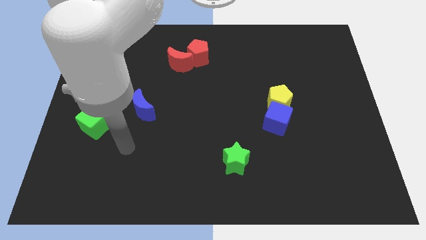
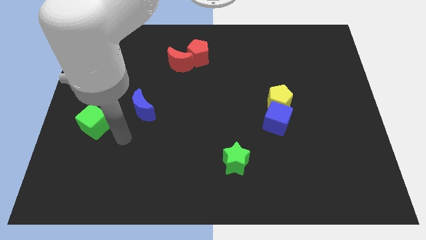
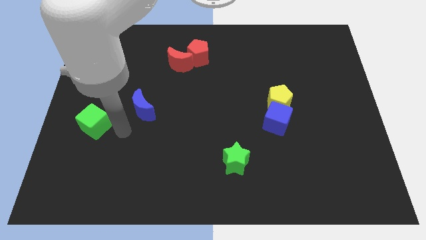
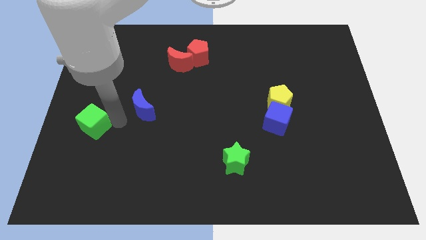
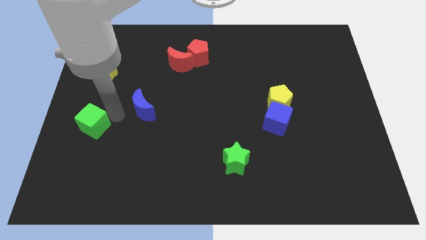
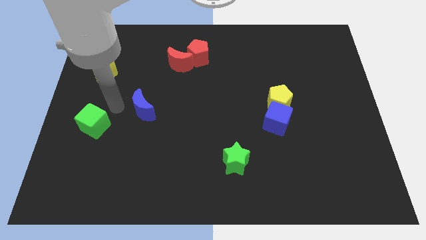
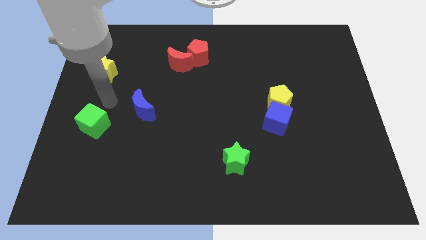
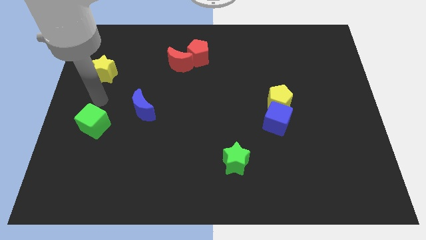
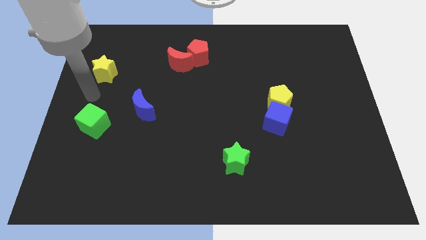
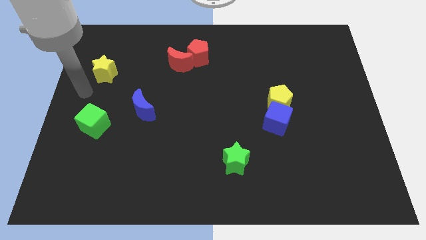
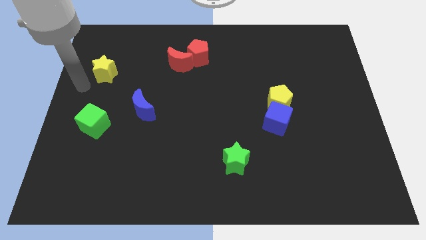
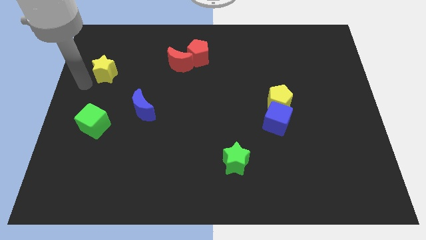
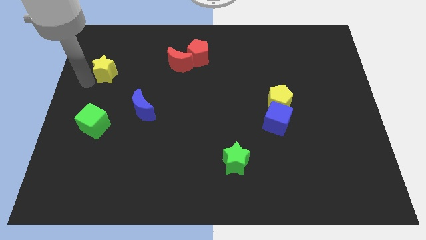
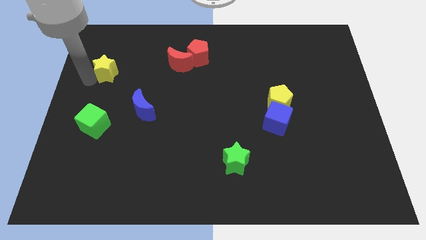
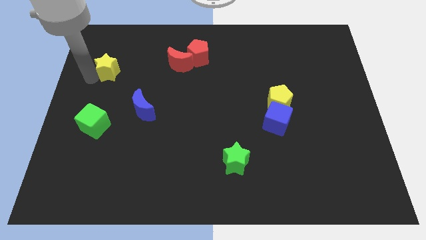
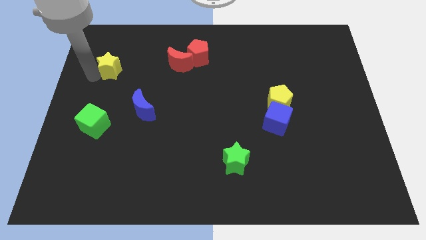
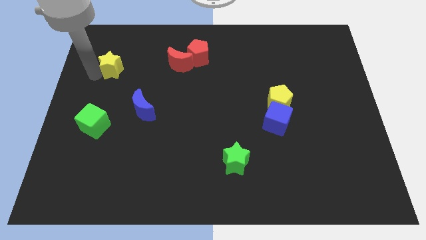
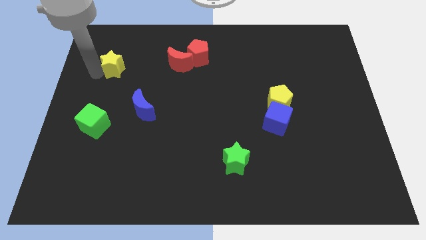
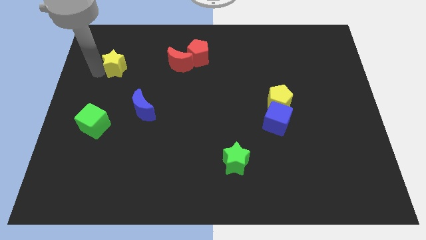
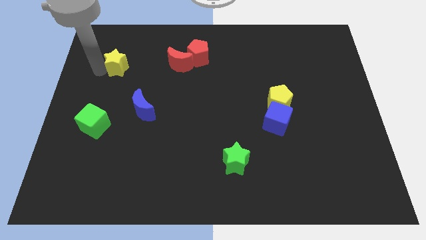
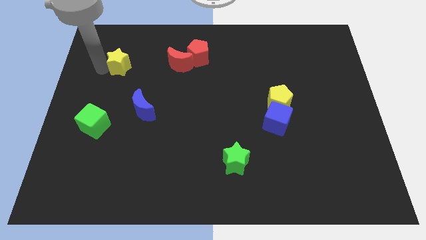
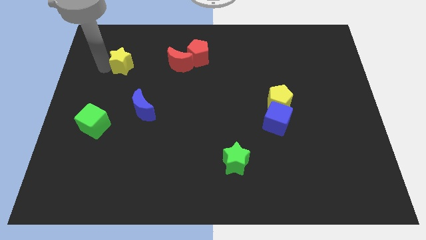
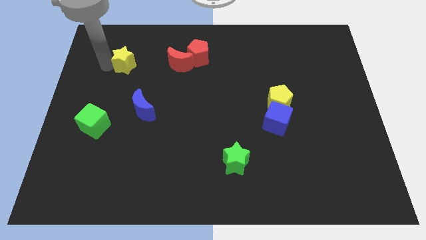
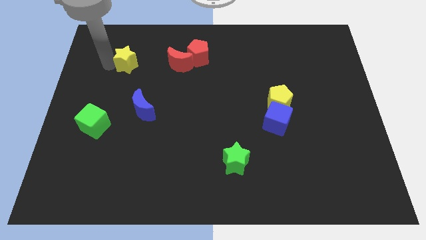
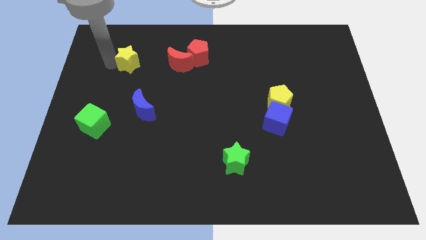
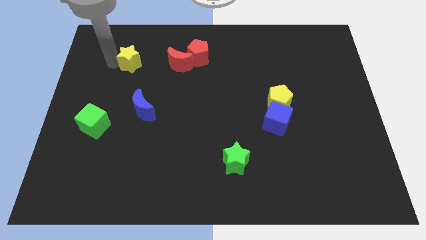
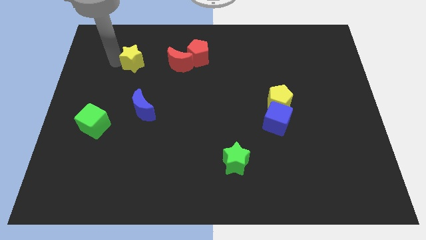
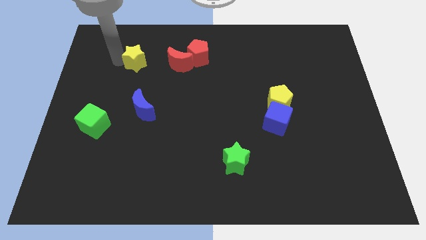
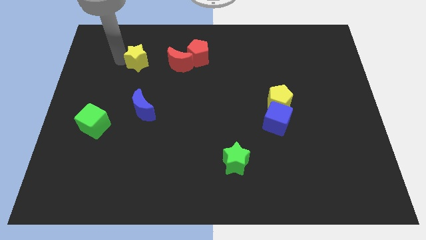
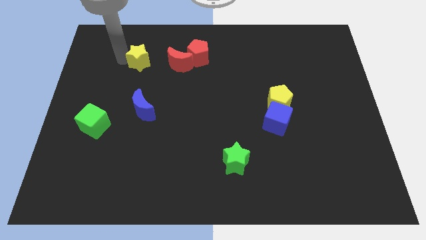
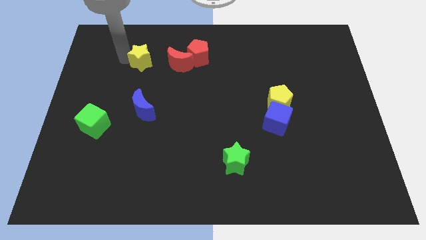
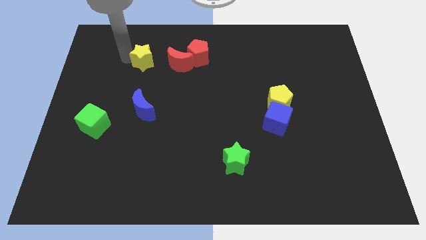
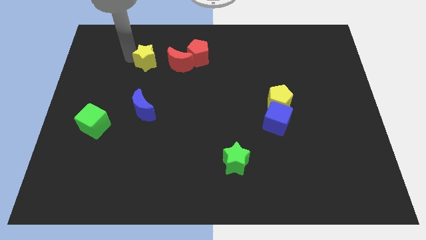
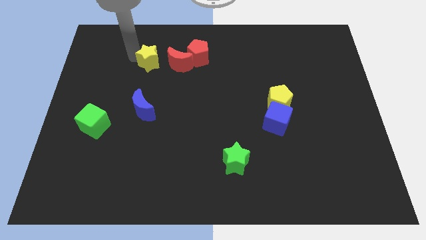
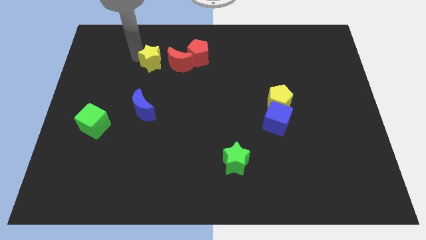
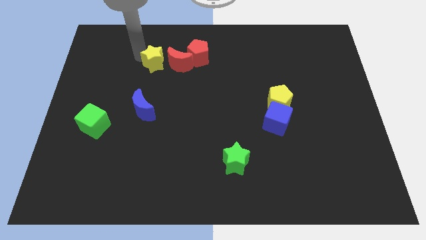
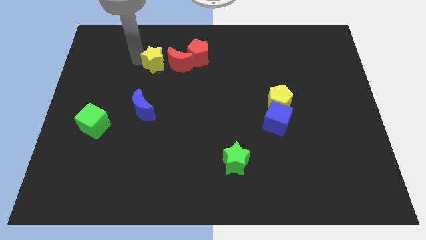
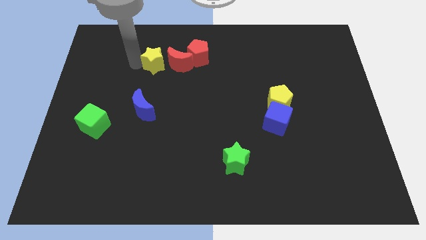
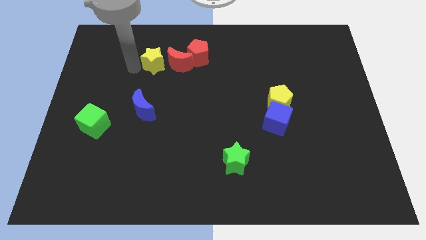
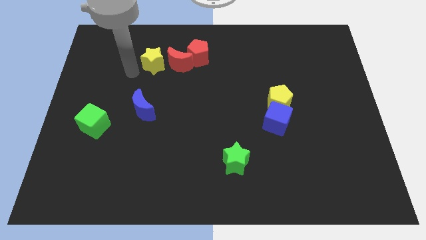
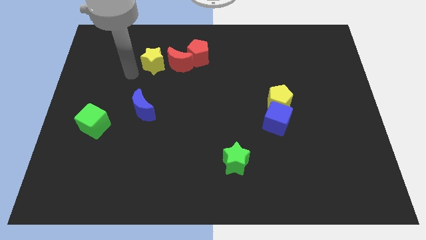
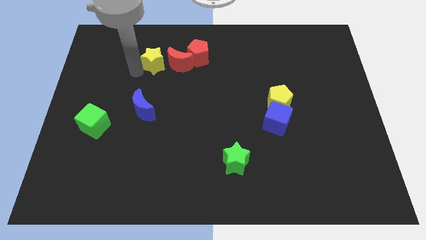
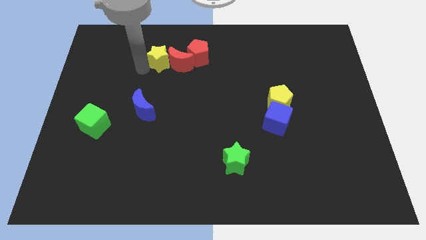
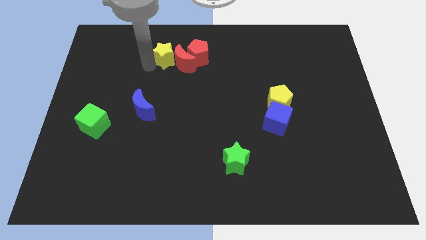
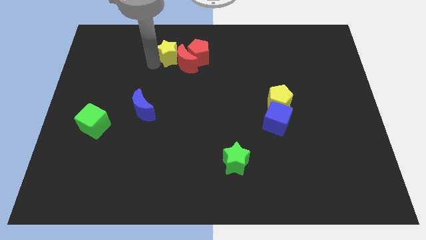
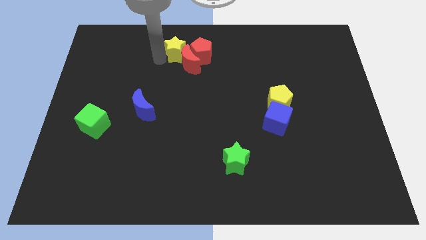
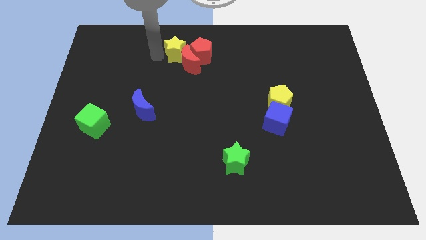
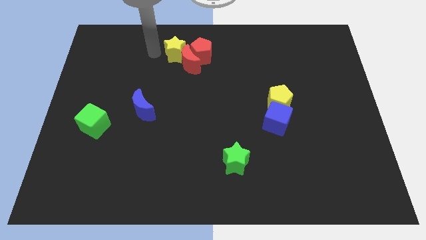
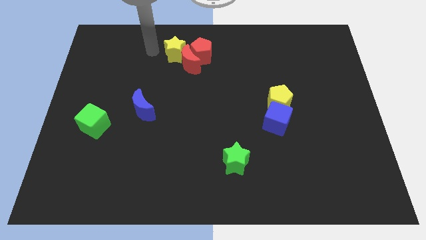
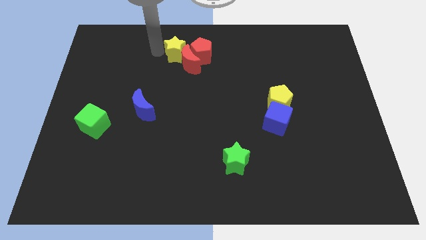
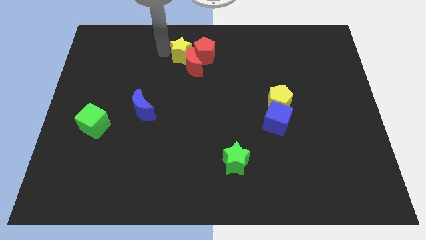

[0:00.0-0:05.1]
put the yellow star towards the red pentagon

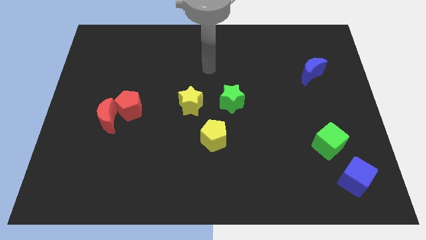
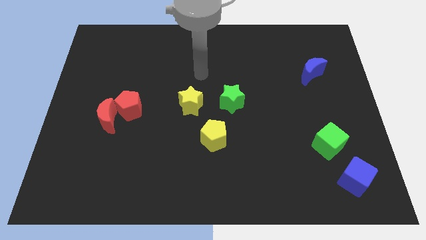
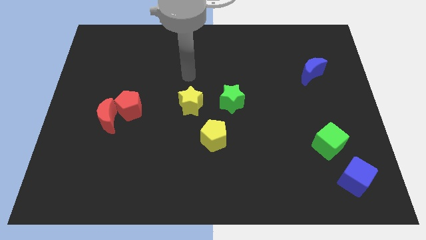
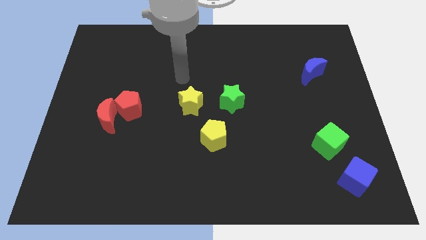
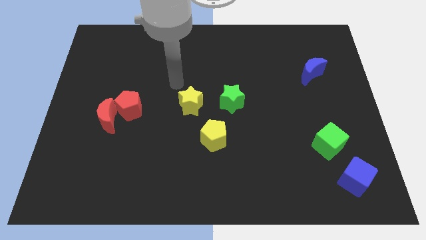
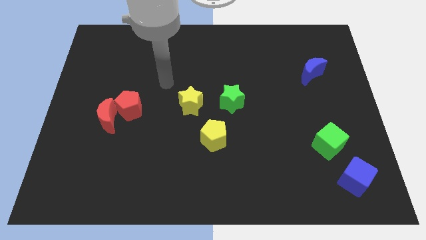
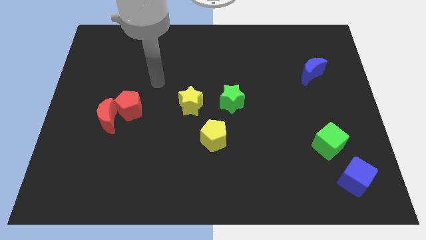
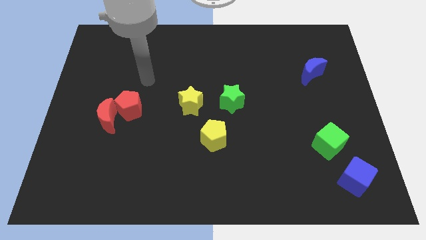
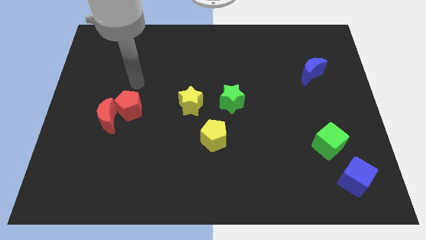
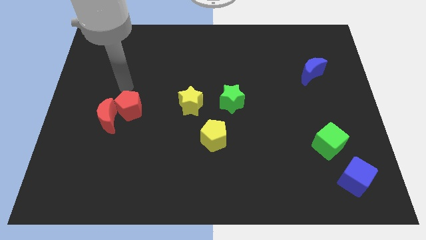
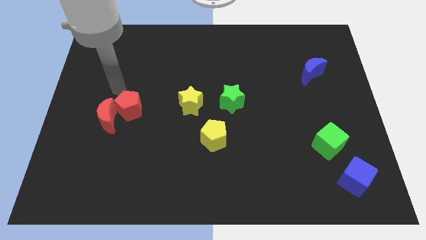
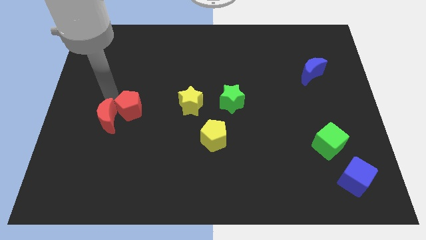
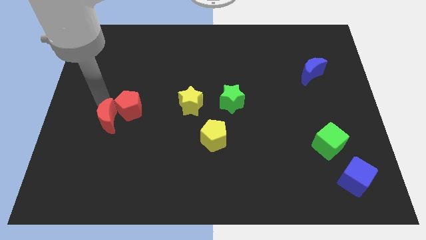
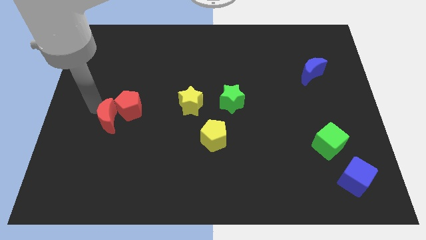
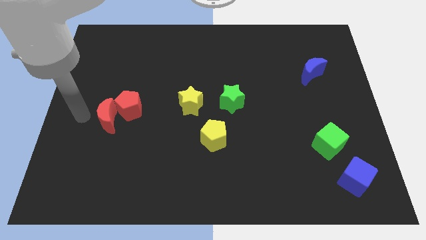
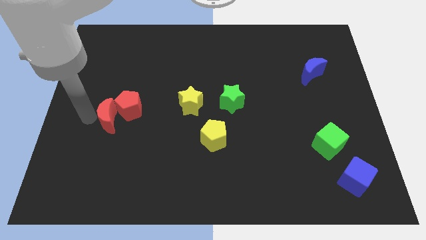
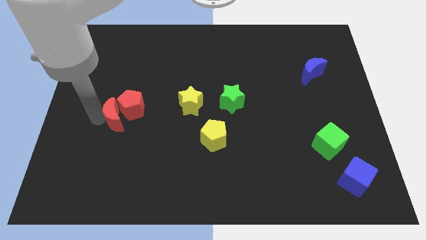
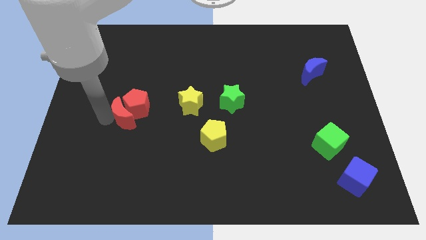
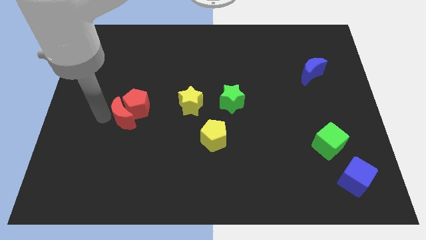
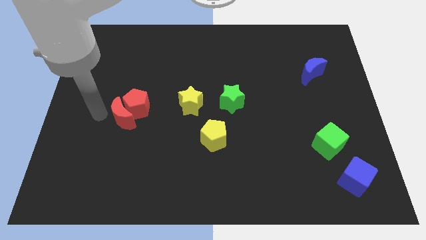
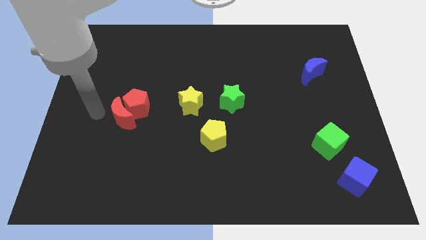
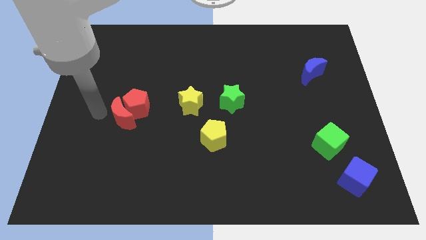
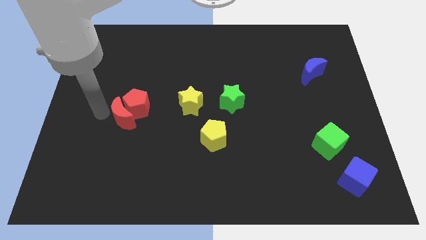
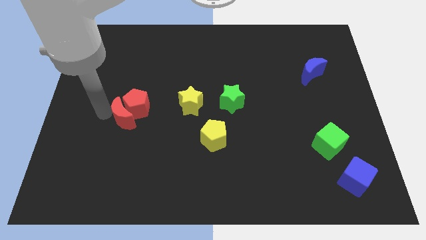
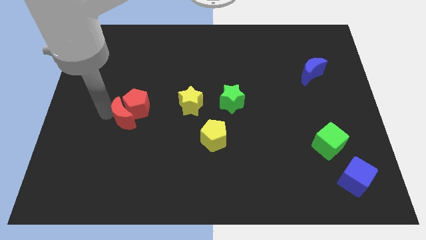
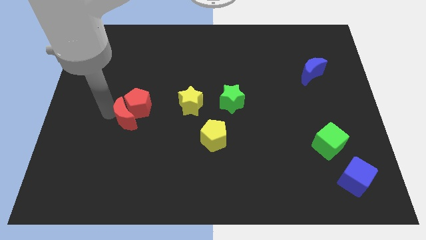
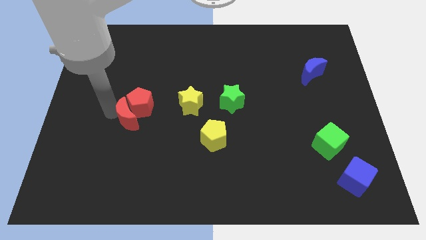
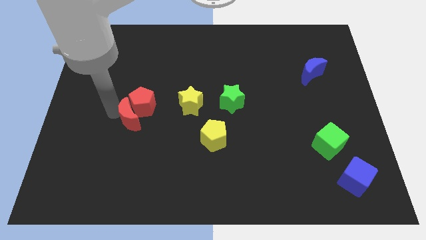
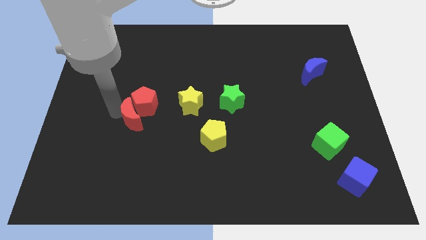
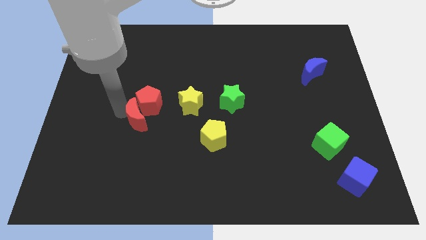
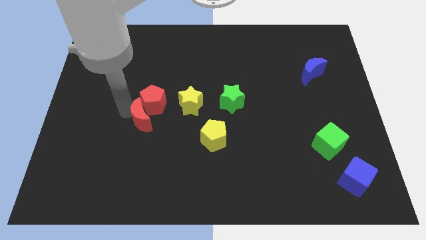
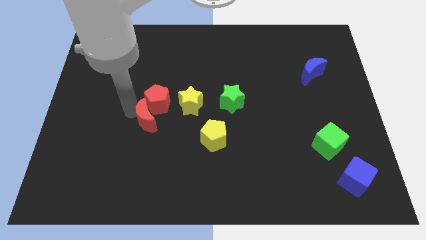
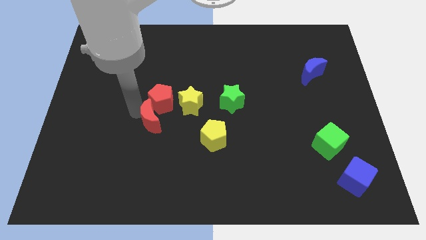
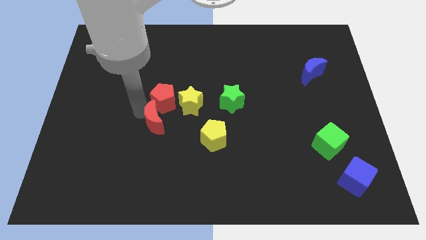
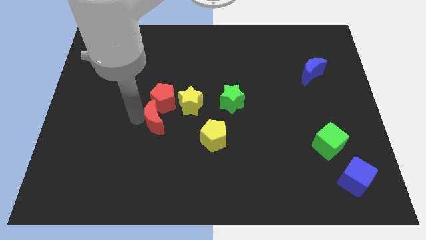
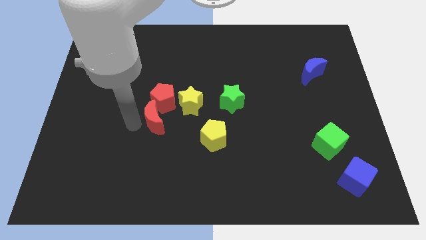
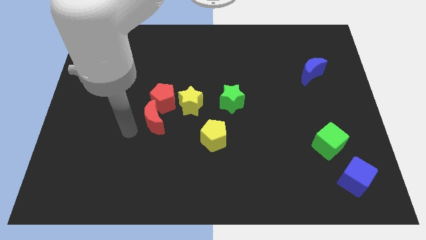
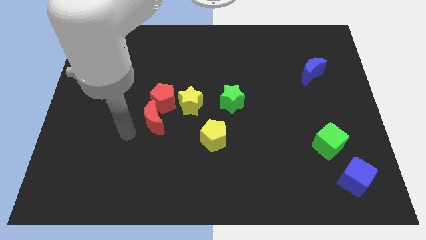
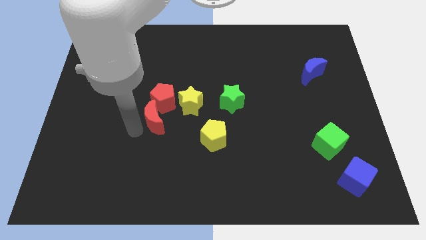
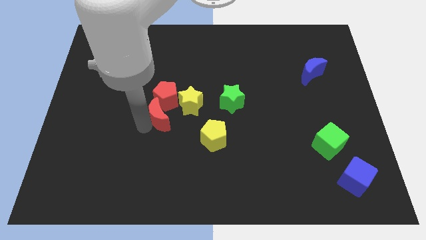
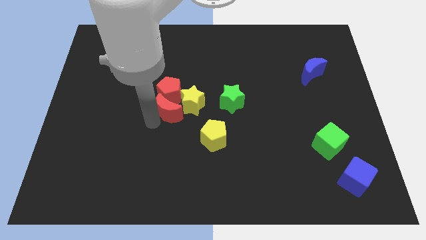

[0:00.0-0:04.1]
put the red moon close to the yellow star
